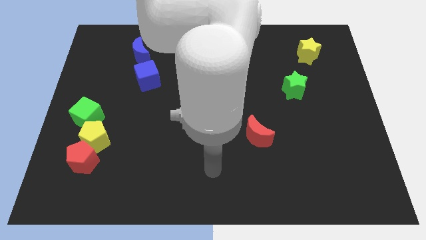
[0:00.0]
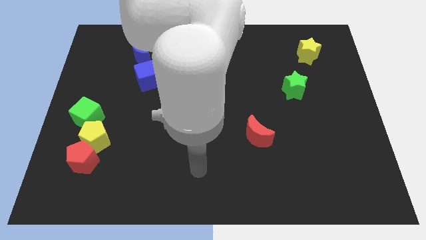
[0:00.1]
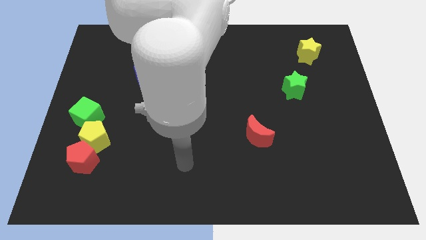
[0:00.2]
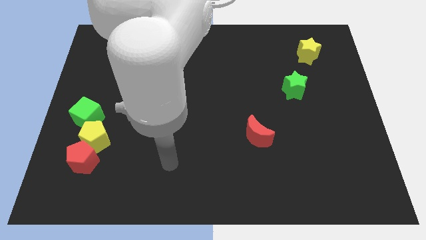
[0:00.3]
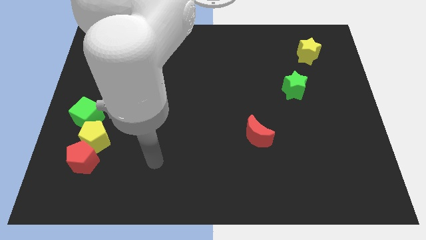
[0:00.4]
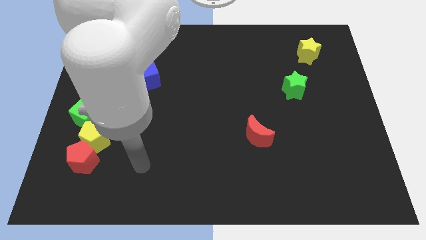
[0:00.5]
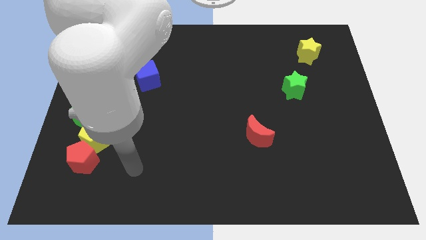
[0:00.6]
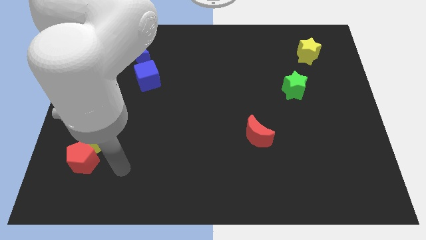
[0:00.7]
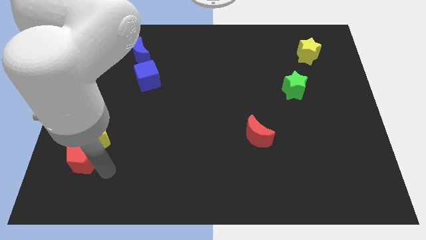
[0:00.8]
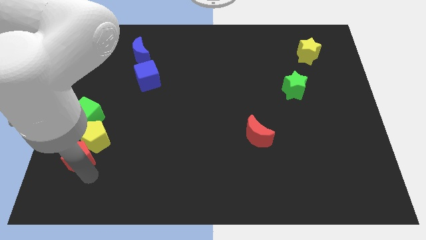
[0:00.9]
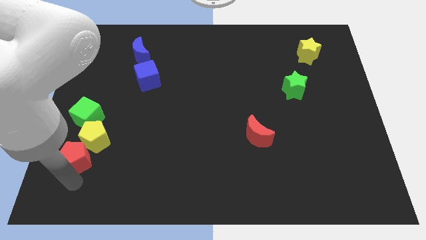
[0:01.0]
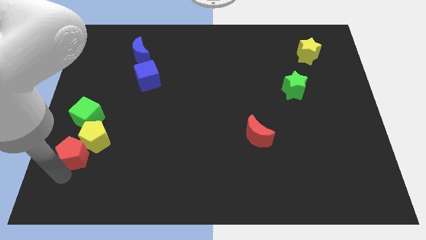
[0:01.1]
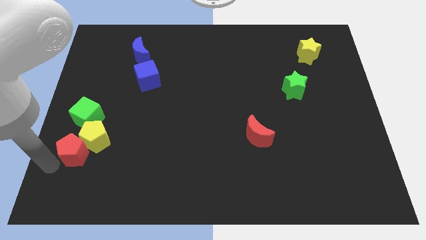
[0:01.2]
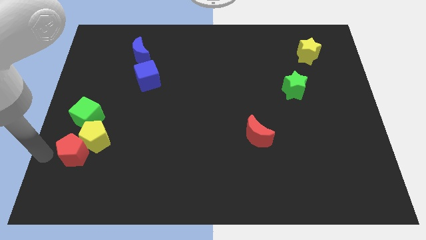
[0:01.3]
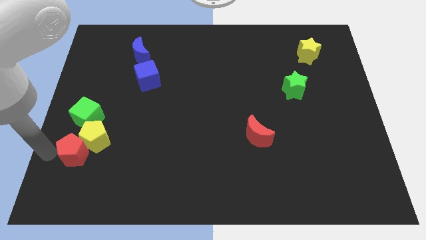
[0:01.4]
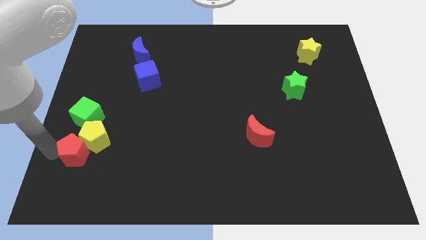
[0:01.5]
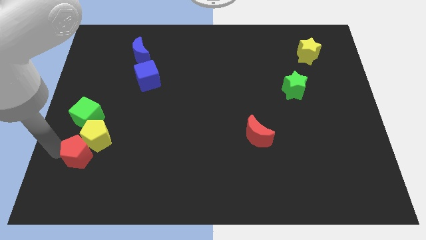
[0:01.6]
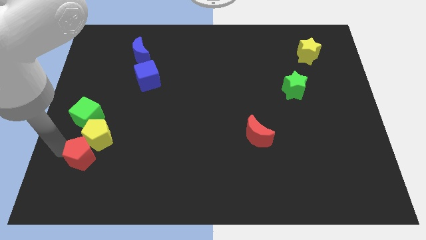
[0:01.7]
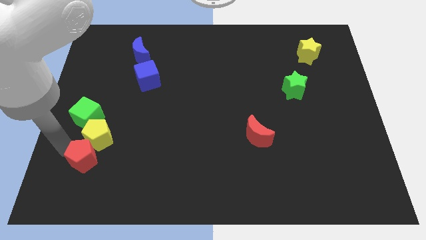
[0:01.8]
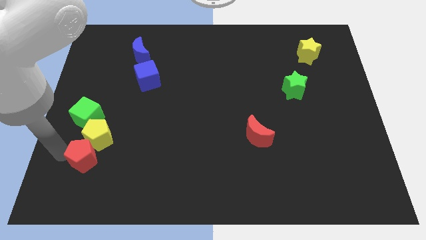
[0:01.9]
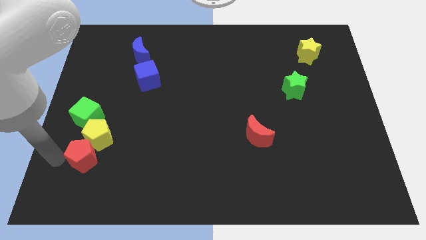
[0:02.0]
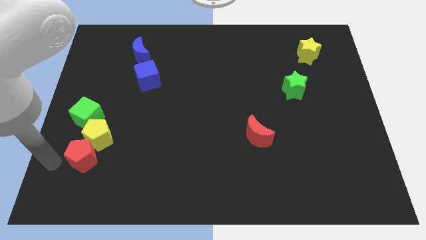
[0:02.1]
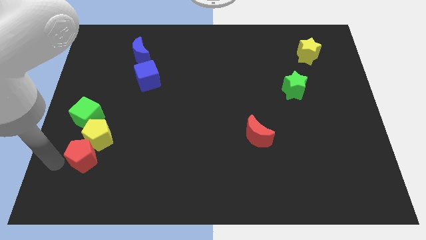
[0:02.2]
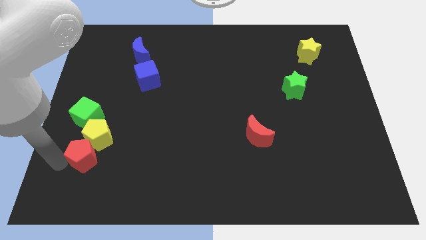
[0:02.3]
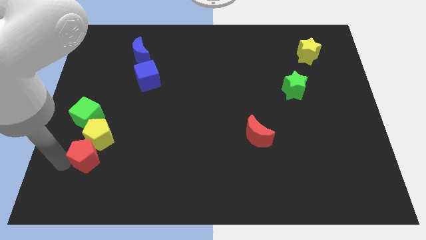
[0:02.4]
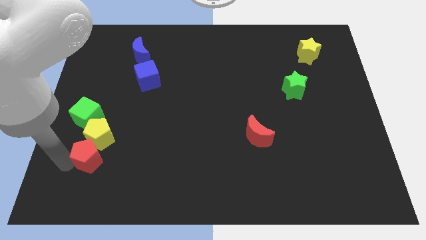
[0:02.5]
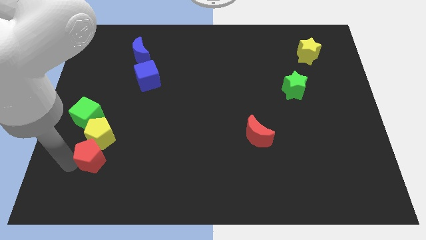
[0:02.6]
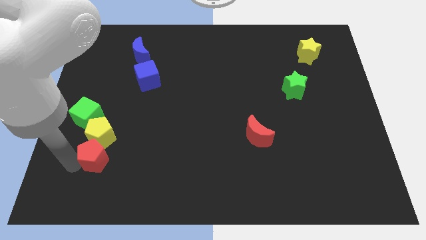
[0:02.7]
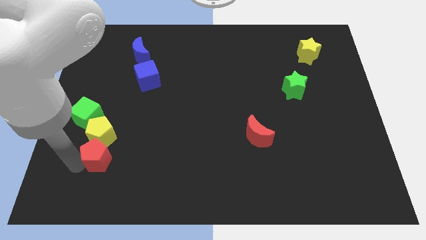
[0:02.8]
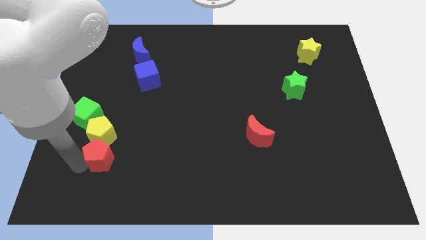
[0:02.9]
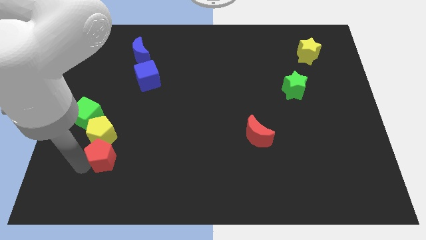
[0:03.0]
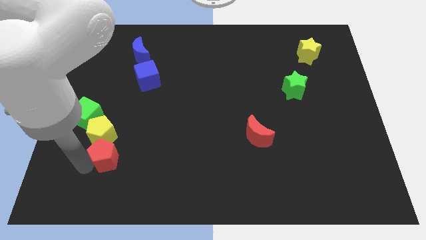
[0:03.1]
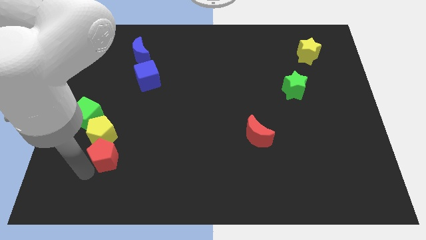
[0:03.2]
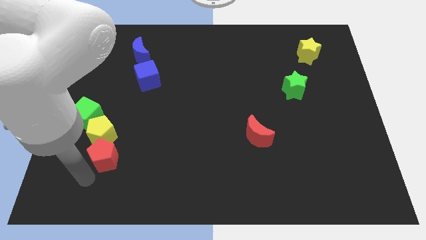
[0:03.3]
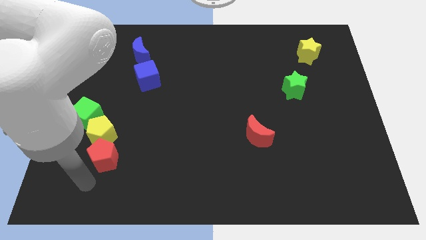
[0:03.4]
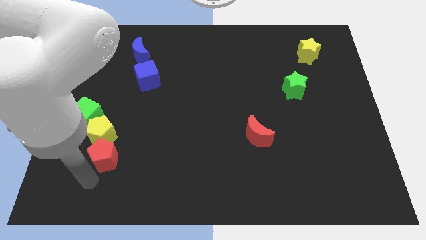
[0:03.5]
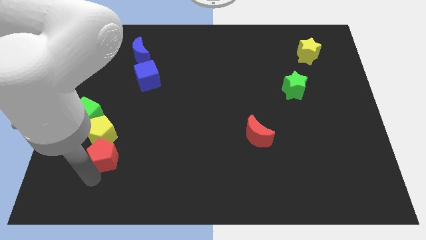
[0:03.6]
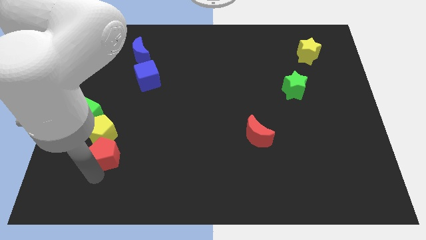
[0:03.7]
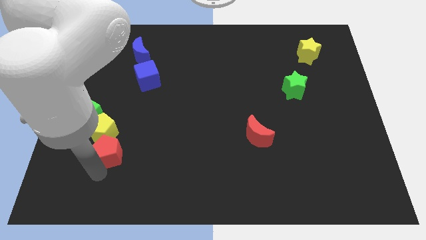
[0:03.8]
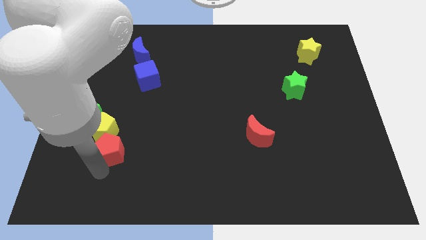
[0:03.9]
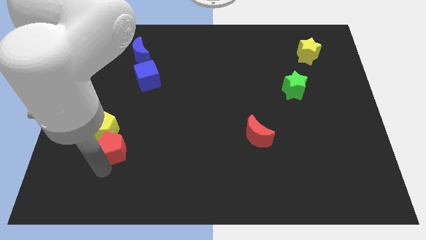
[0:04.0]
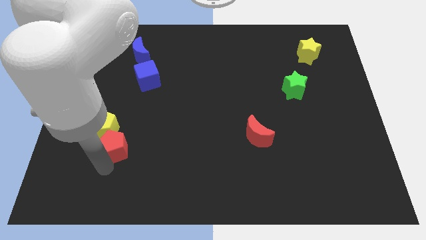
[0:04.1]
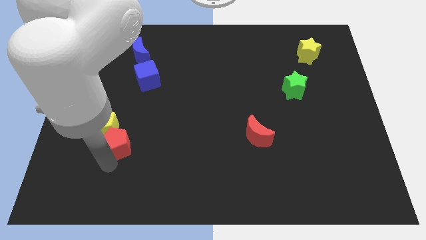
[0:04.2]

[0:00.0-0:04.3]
slide the red pentagon upwards and then right slightly

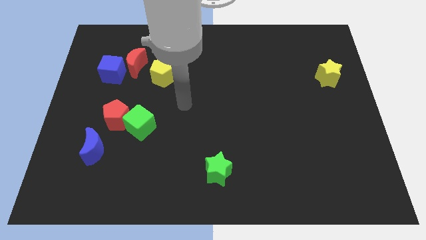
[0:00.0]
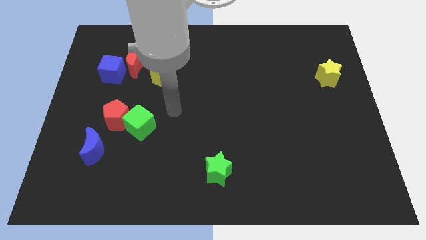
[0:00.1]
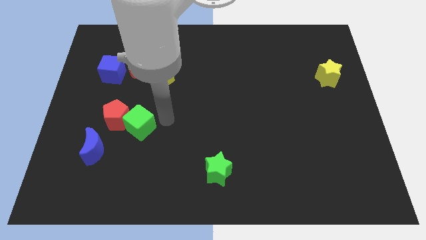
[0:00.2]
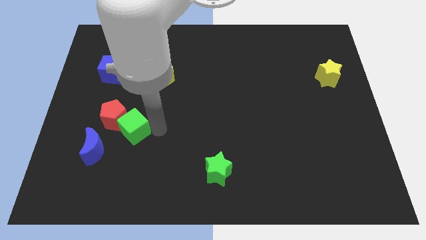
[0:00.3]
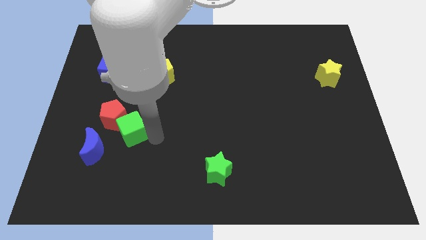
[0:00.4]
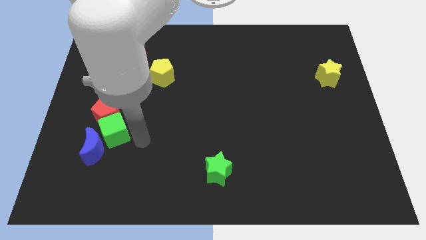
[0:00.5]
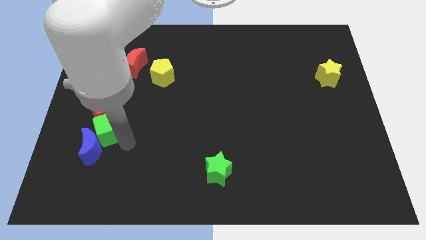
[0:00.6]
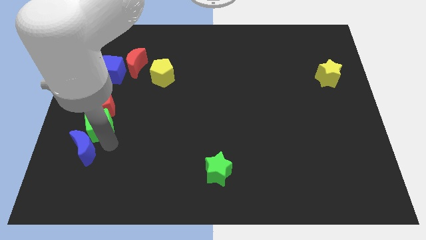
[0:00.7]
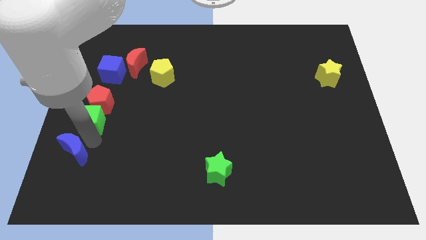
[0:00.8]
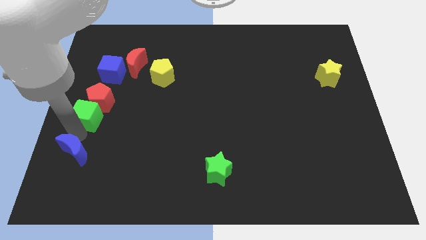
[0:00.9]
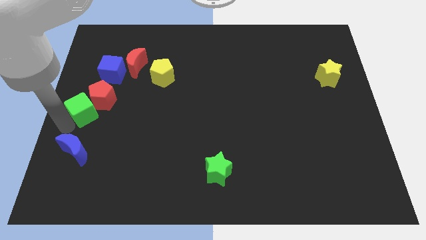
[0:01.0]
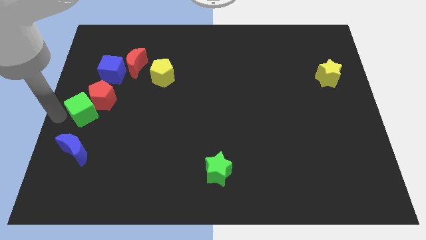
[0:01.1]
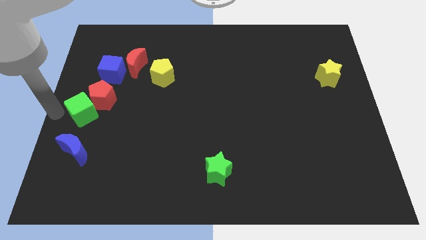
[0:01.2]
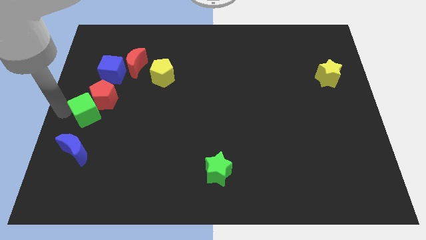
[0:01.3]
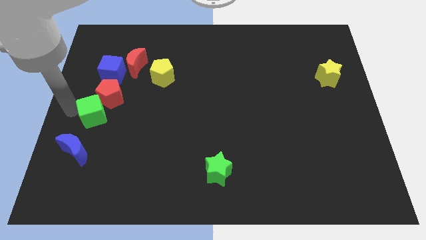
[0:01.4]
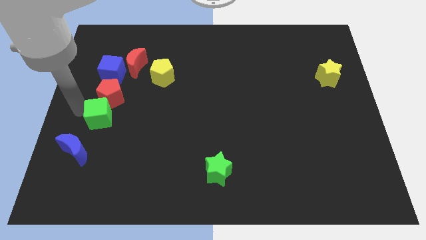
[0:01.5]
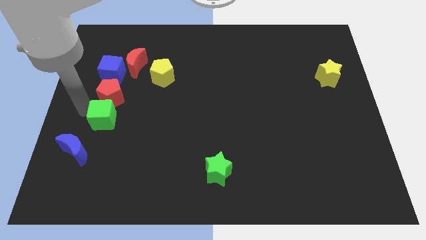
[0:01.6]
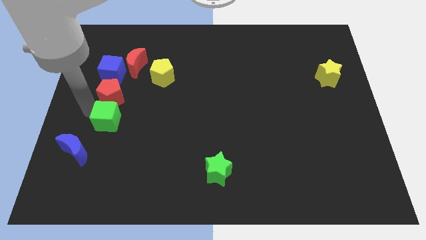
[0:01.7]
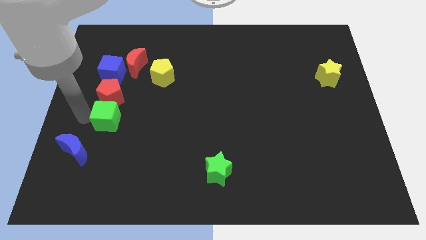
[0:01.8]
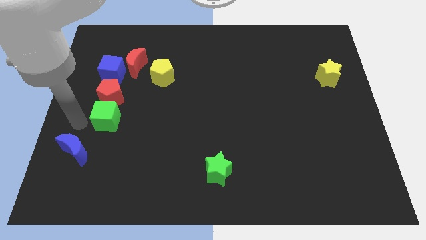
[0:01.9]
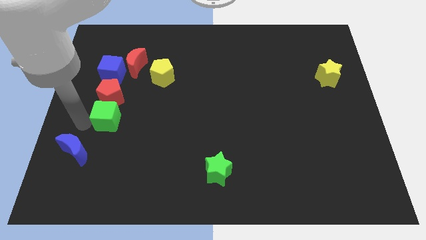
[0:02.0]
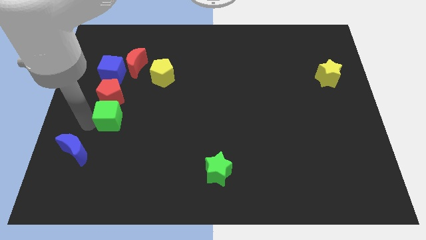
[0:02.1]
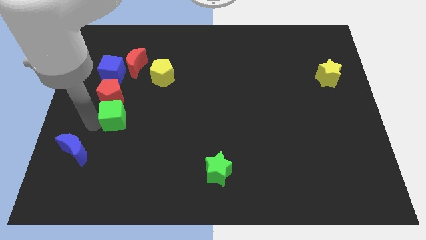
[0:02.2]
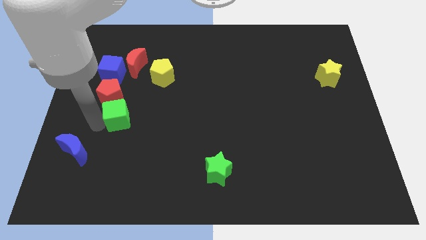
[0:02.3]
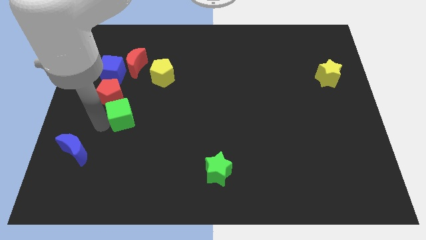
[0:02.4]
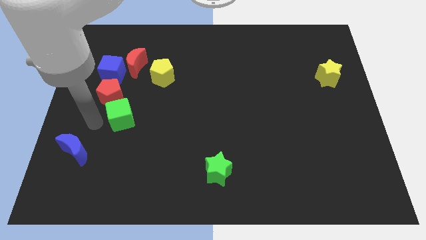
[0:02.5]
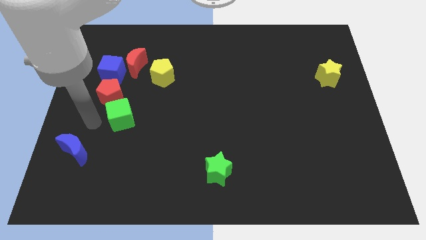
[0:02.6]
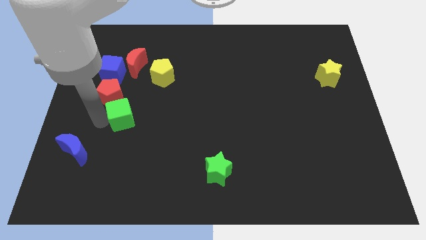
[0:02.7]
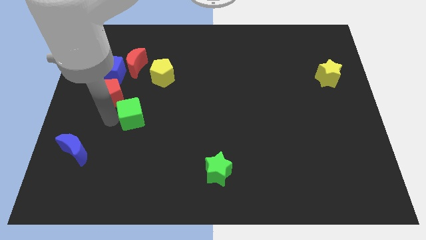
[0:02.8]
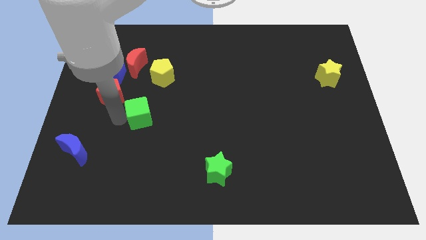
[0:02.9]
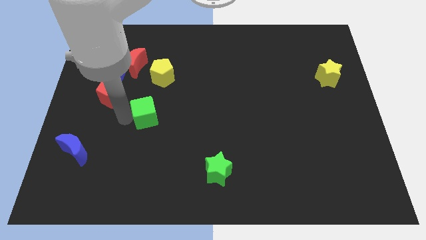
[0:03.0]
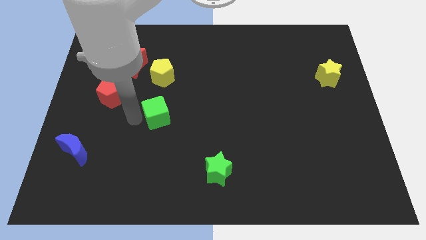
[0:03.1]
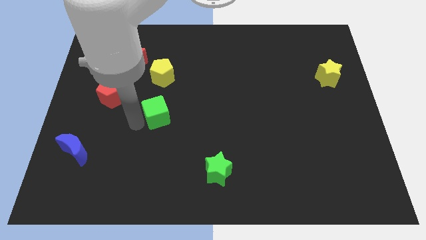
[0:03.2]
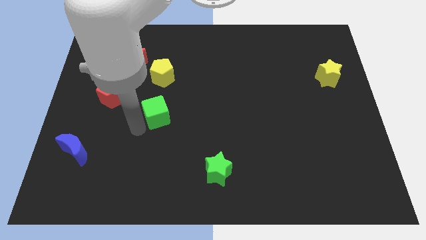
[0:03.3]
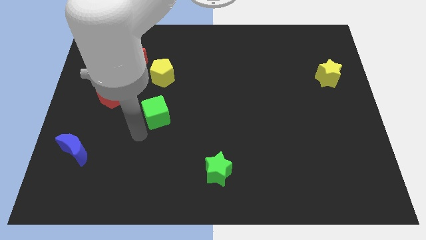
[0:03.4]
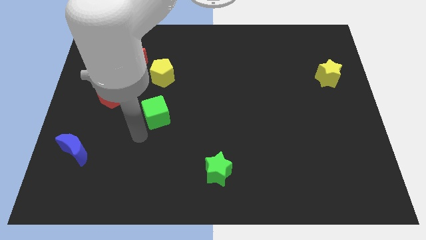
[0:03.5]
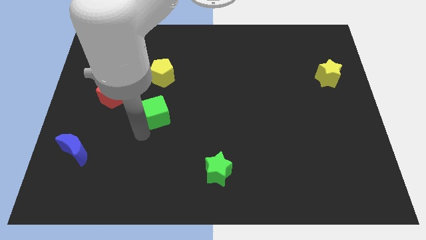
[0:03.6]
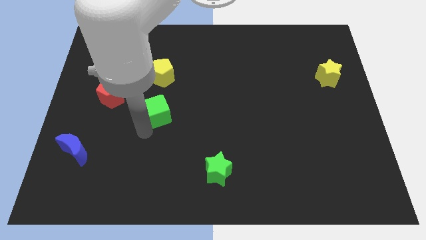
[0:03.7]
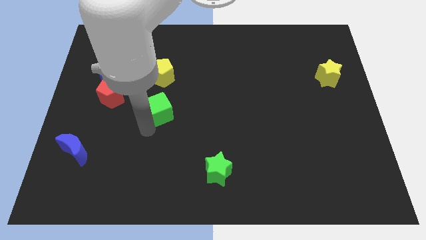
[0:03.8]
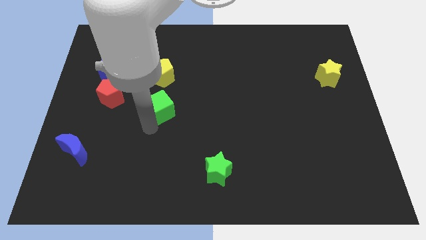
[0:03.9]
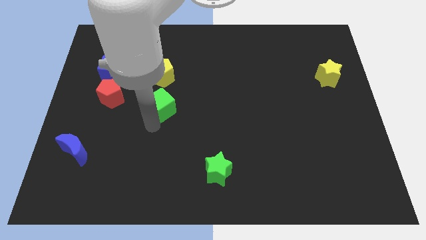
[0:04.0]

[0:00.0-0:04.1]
slightly move the green cube upwards and right diagonally
